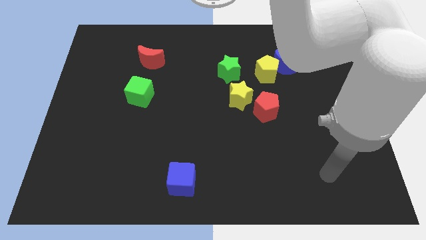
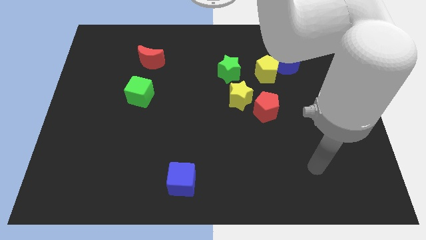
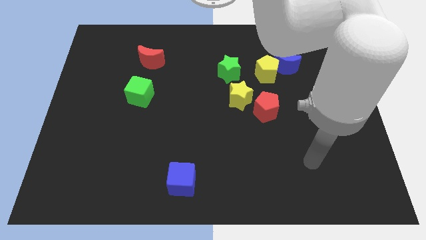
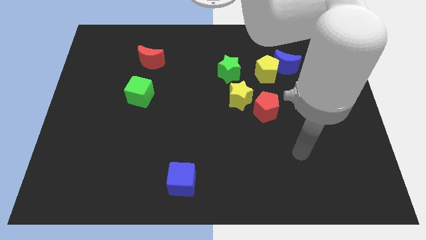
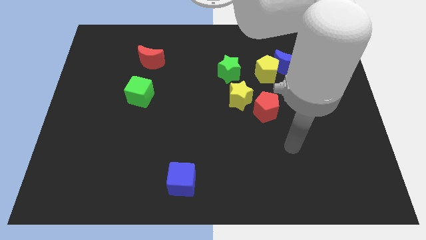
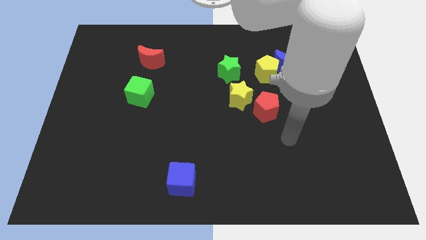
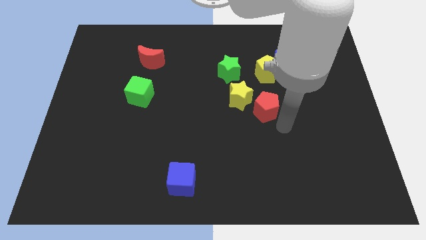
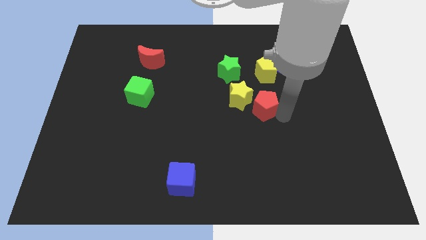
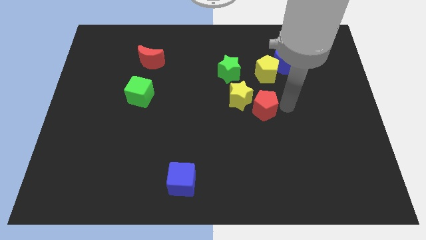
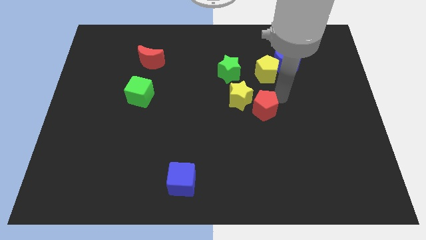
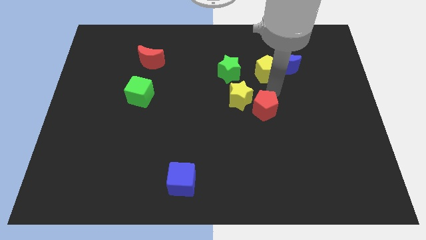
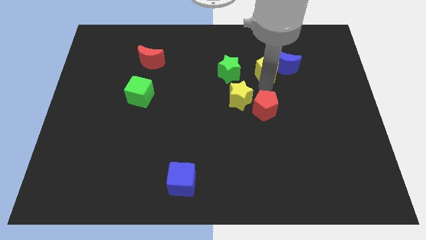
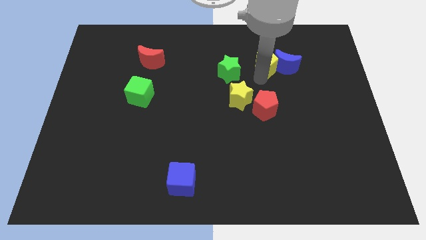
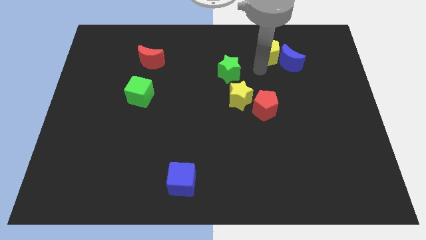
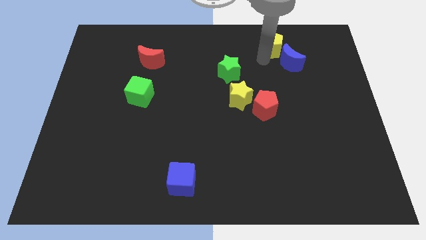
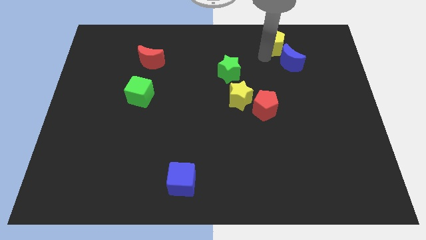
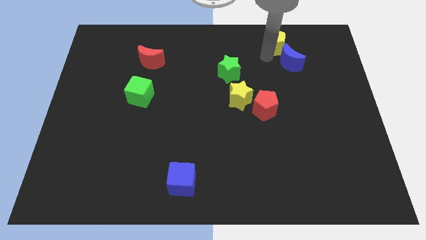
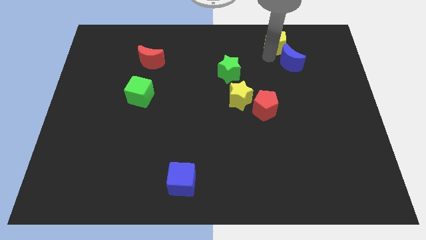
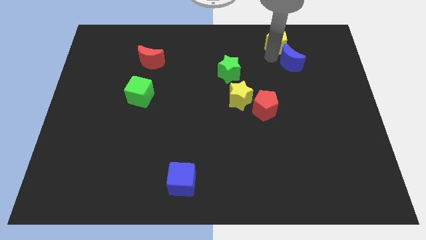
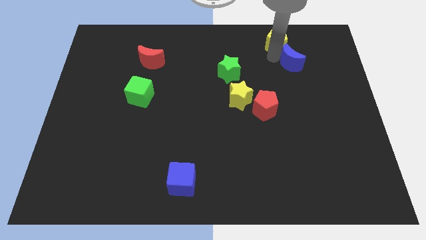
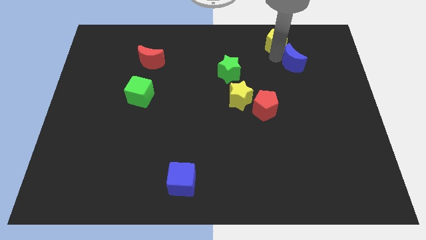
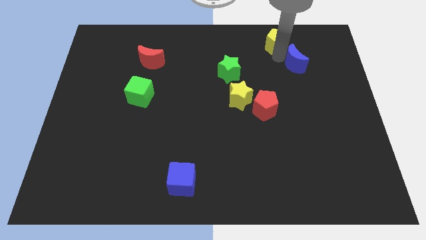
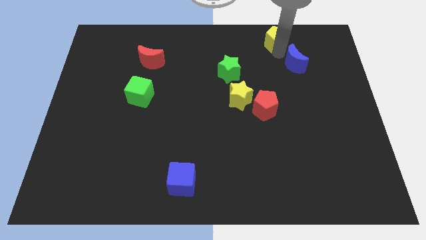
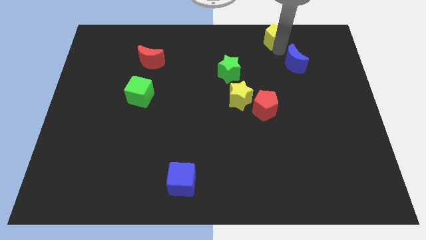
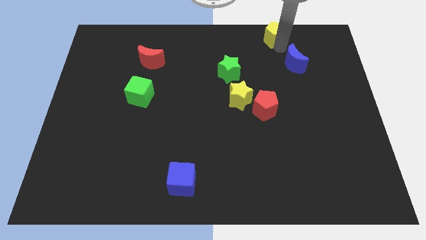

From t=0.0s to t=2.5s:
pull the blue moon apart from the yellow pentagon

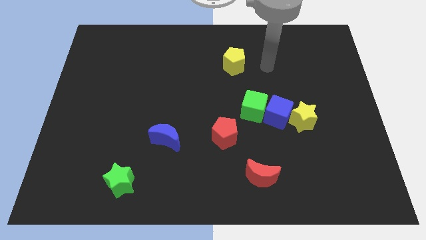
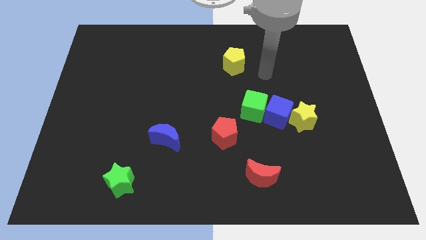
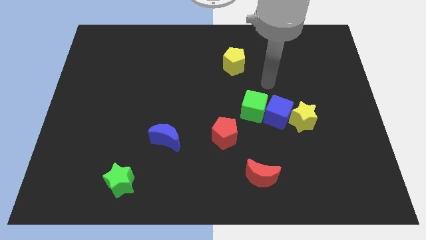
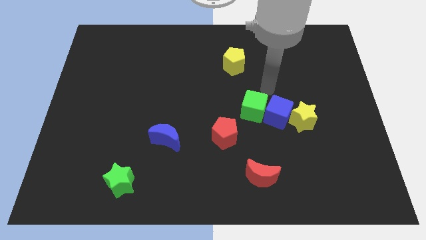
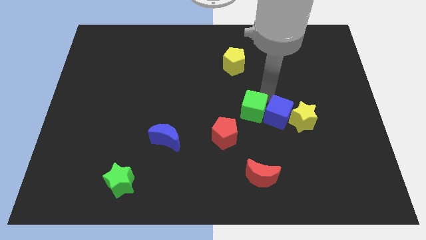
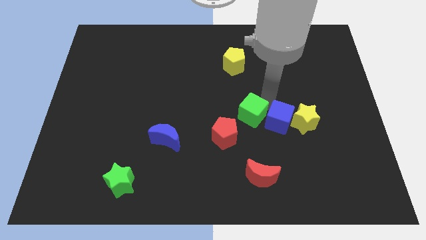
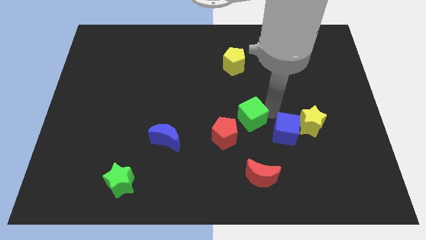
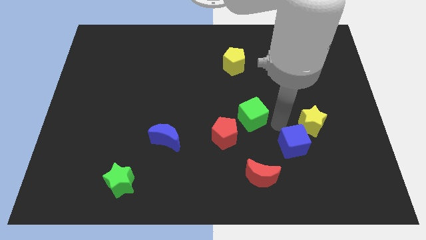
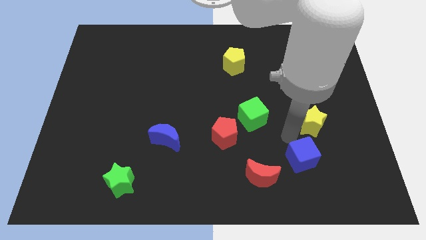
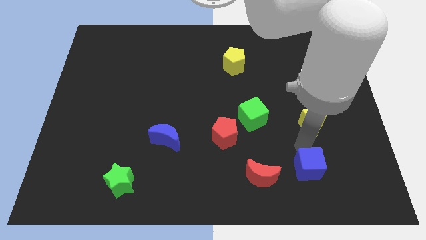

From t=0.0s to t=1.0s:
move the yellow star away from the blue cube

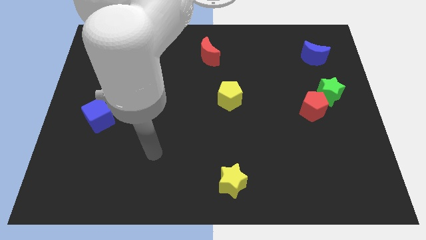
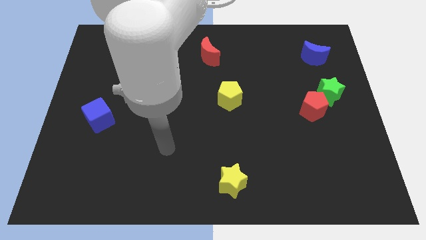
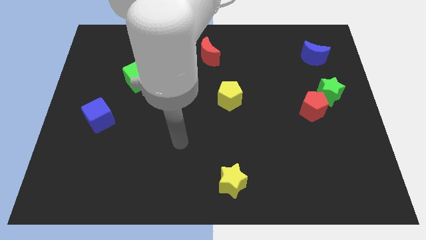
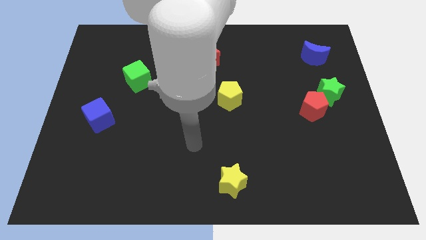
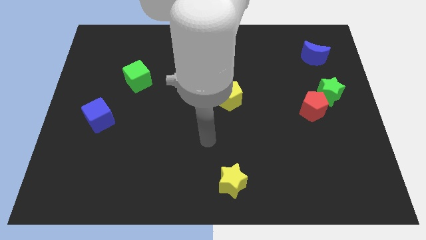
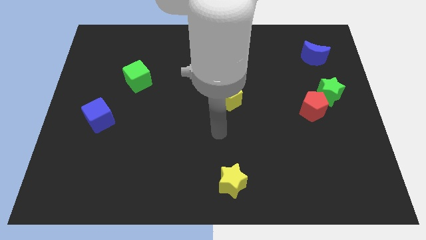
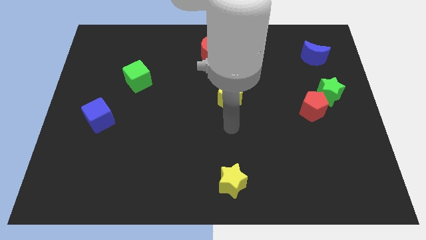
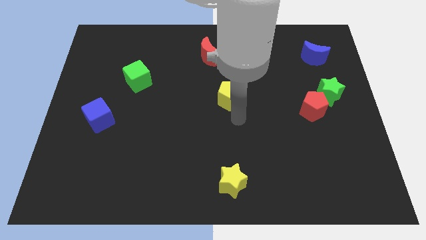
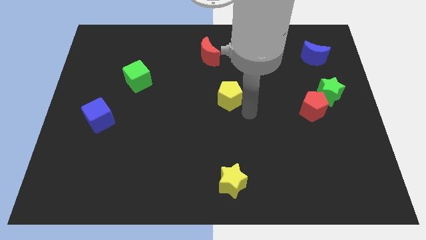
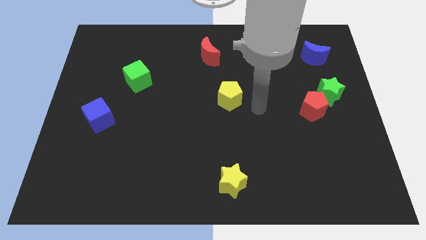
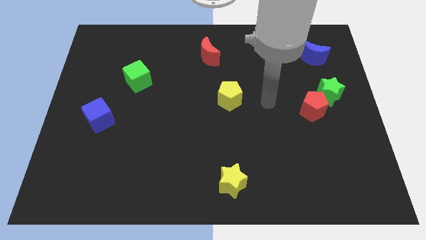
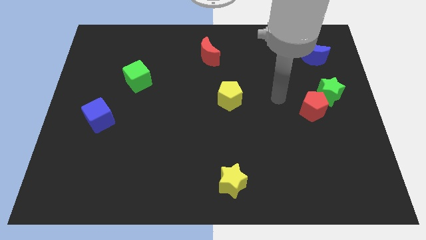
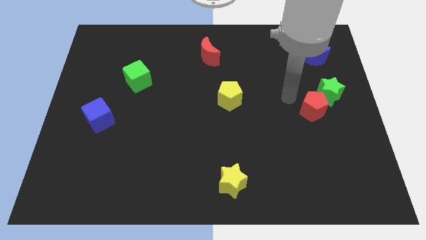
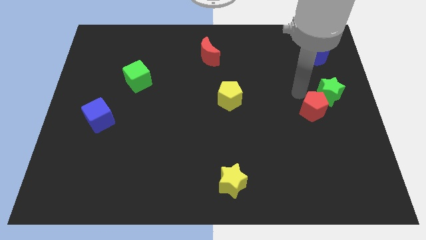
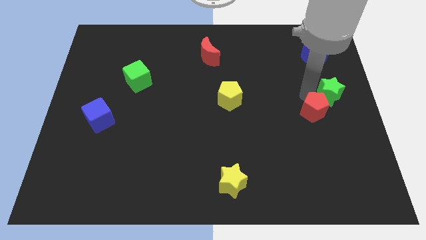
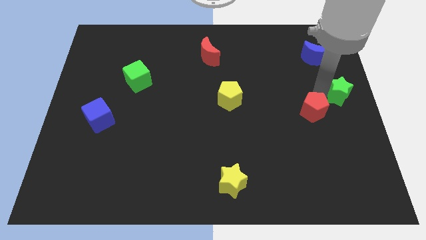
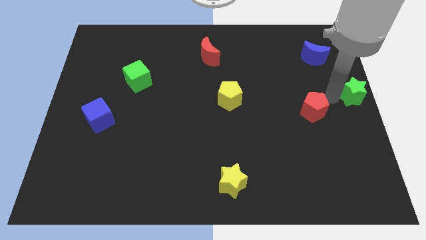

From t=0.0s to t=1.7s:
pull the red pentagon apart from the green star

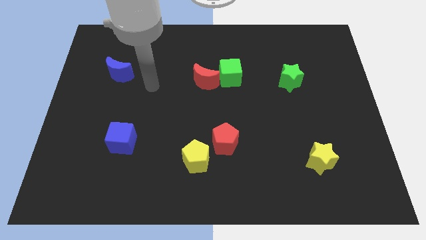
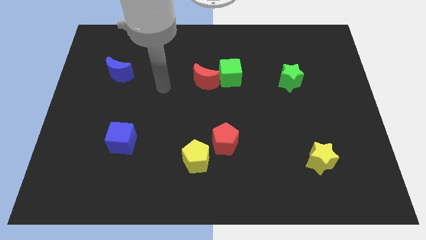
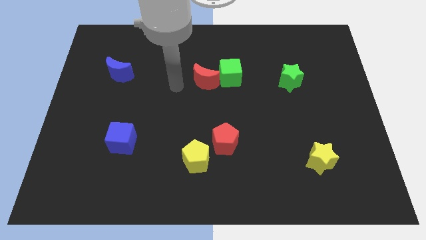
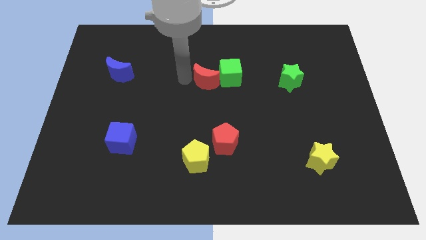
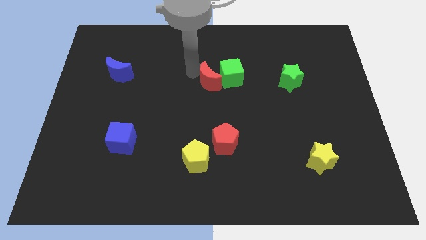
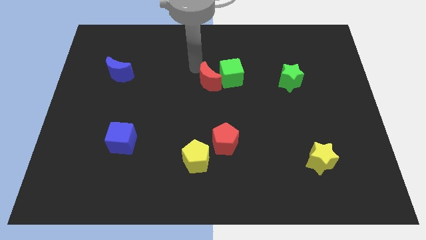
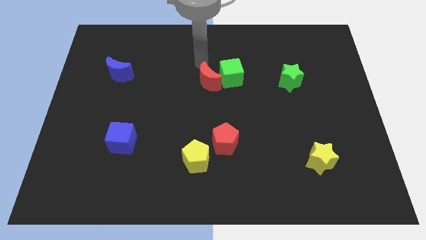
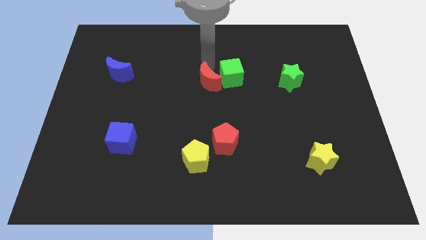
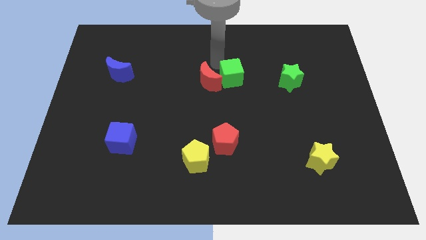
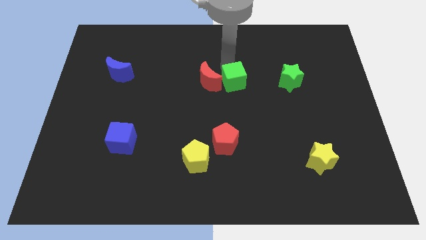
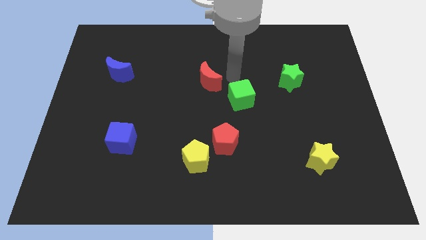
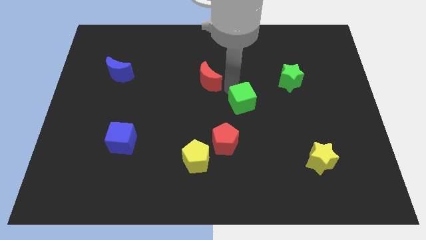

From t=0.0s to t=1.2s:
move the red moon away from the green cube

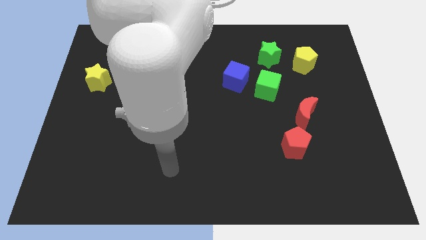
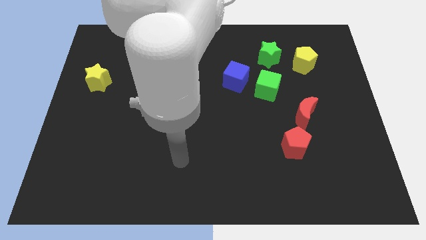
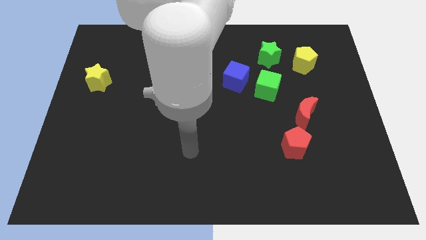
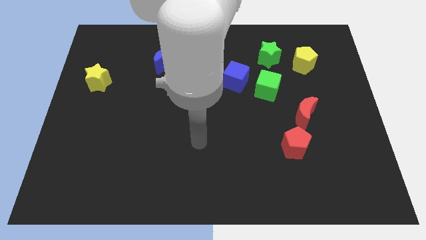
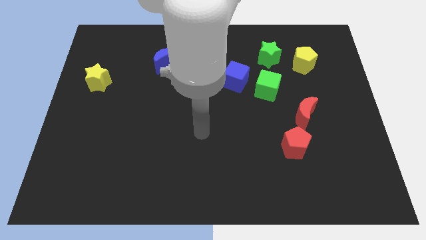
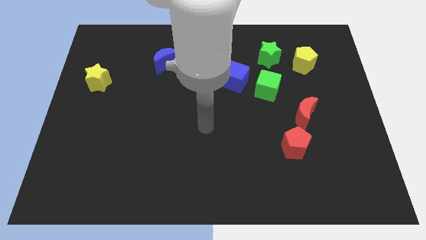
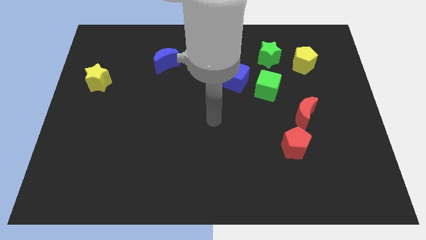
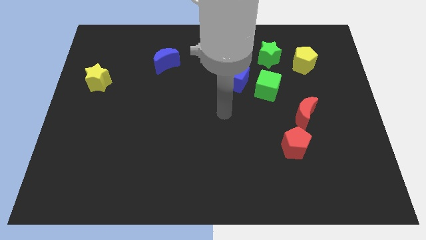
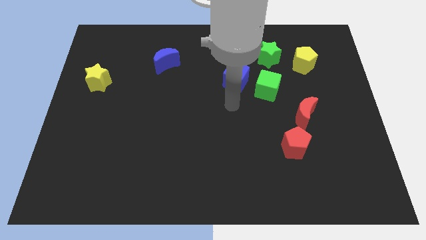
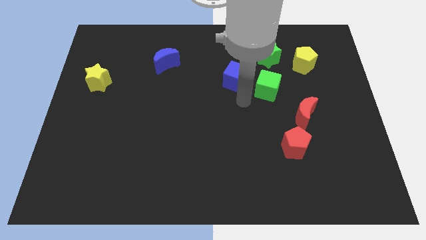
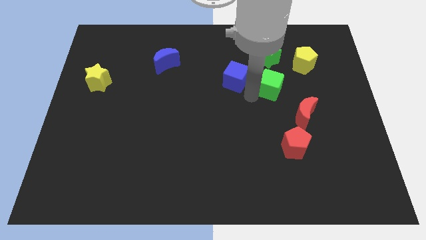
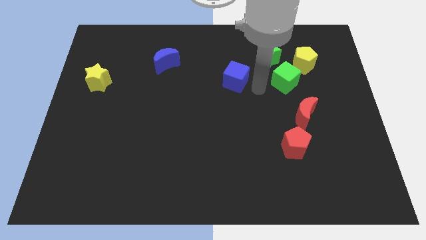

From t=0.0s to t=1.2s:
move the blue cube away from the green cube

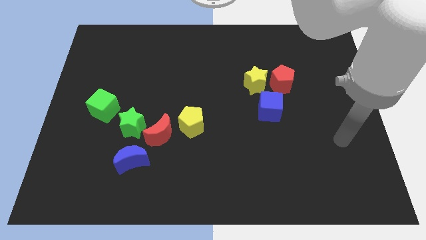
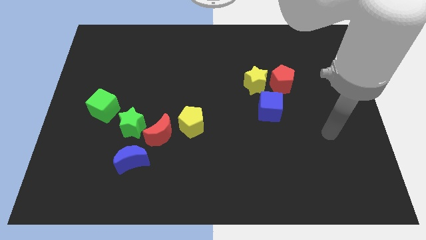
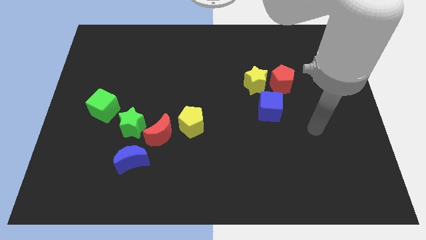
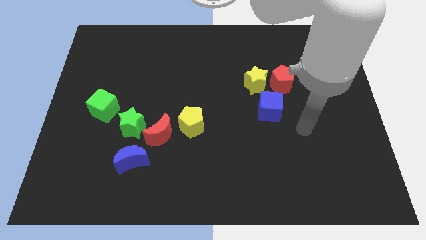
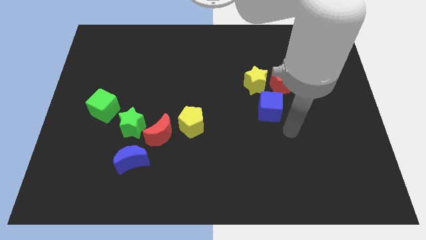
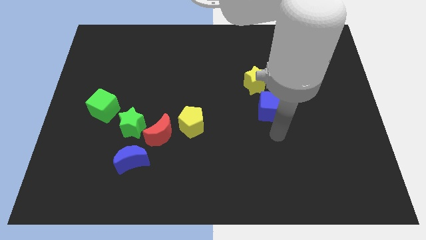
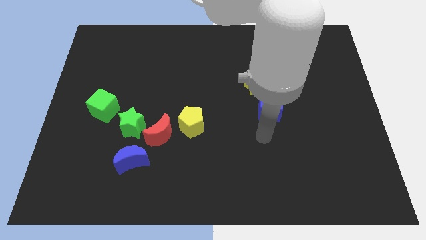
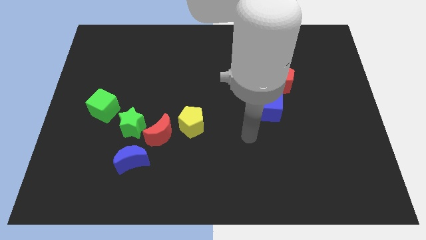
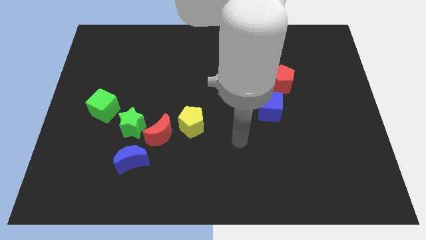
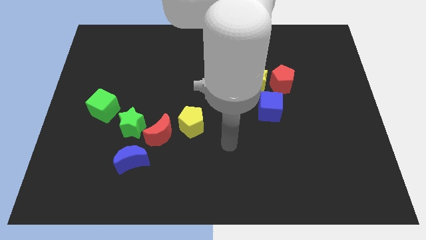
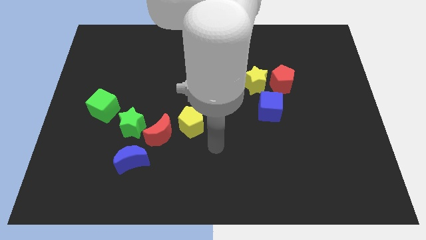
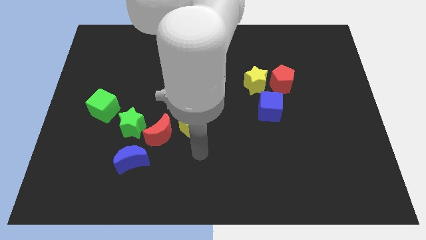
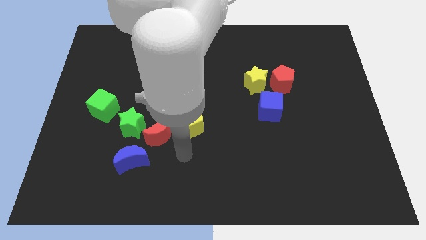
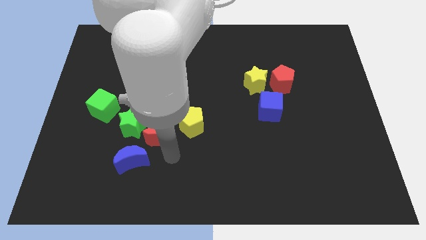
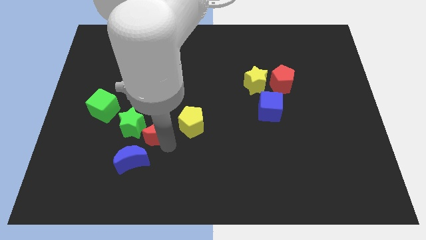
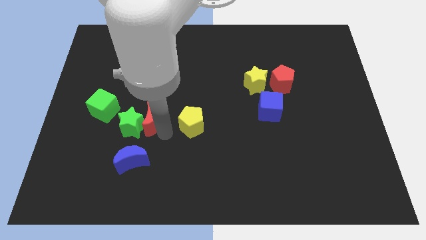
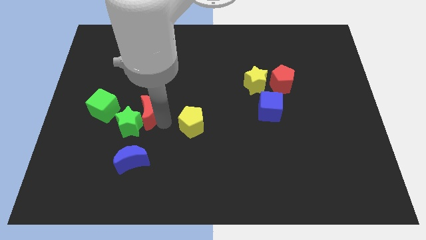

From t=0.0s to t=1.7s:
move the yellow pentagon away from the red moon
